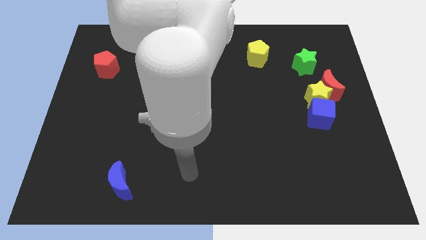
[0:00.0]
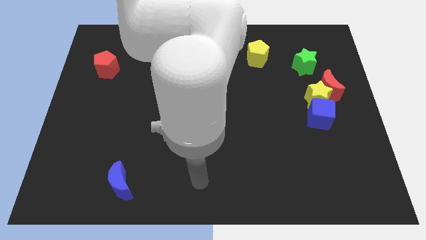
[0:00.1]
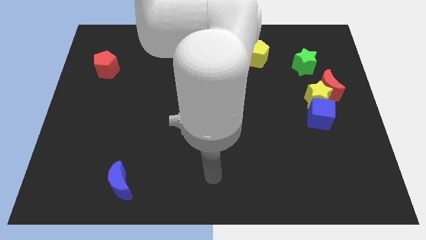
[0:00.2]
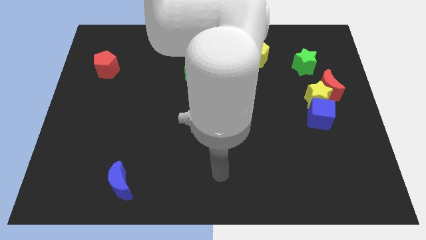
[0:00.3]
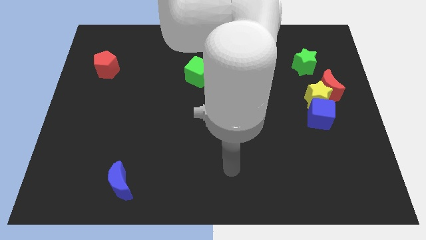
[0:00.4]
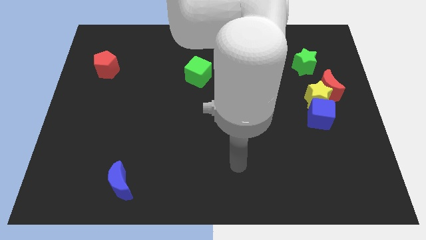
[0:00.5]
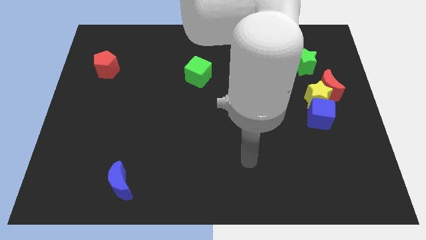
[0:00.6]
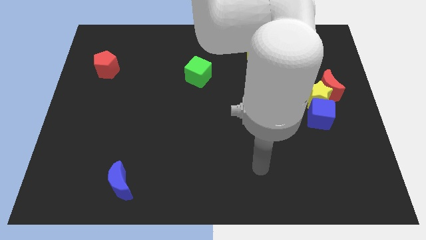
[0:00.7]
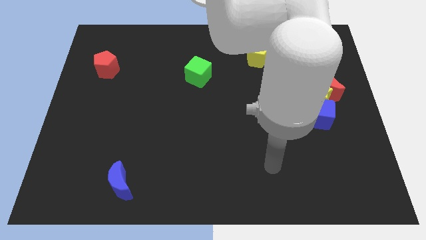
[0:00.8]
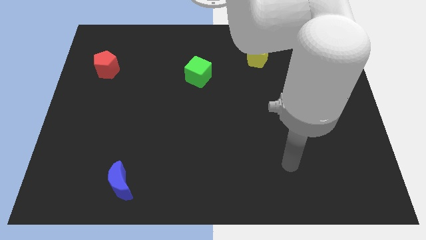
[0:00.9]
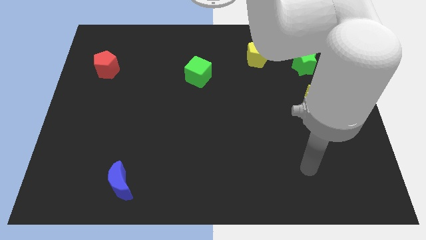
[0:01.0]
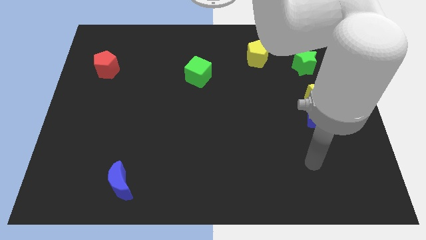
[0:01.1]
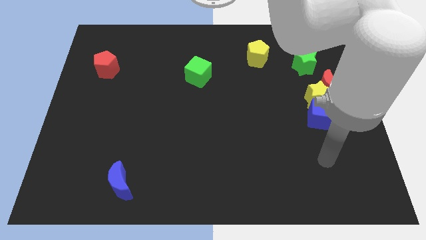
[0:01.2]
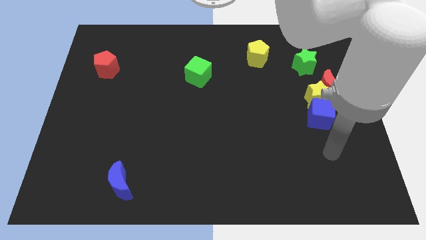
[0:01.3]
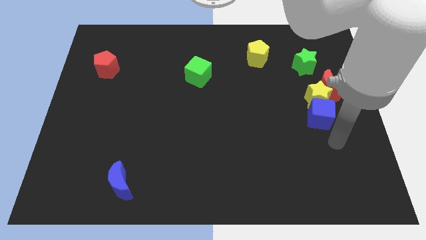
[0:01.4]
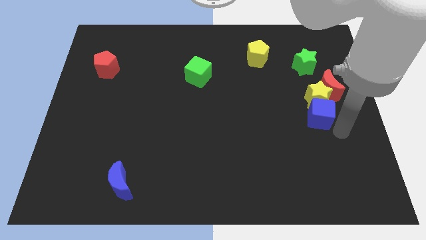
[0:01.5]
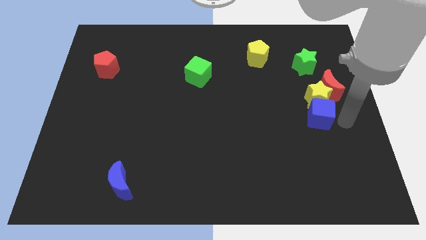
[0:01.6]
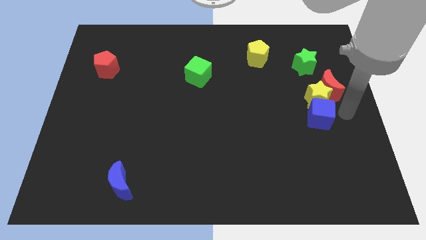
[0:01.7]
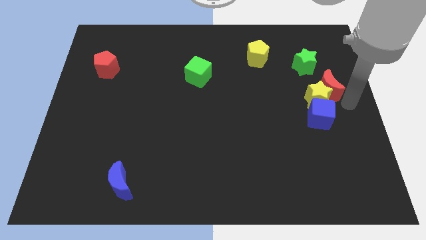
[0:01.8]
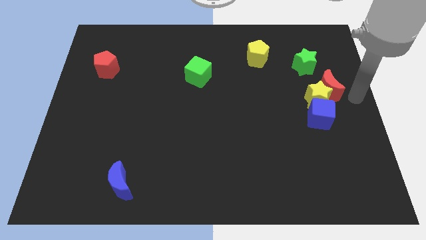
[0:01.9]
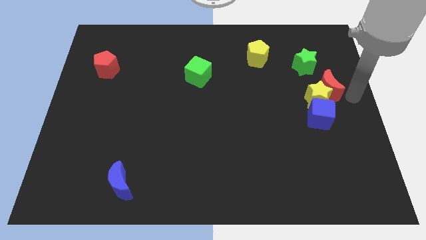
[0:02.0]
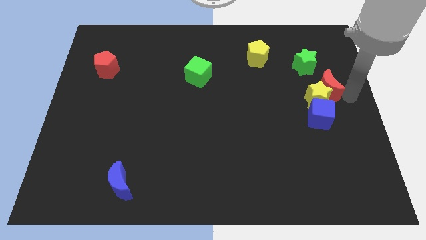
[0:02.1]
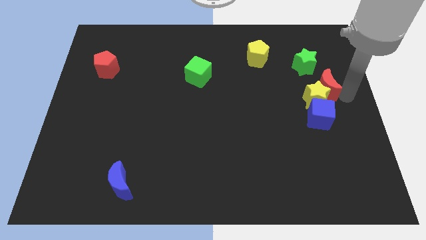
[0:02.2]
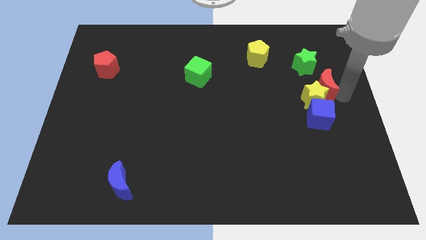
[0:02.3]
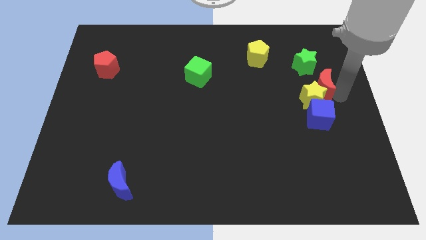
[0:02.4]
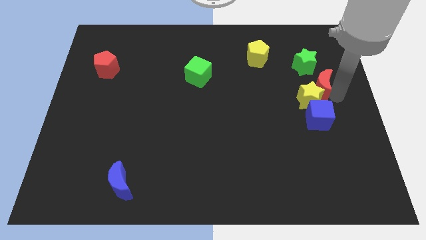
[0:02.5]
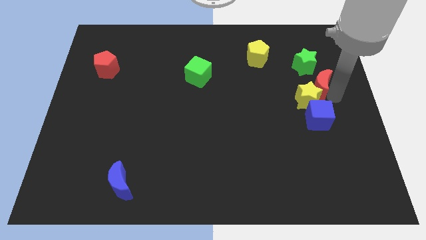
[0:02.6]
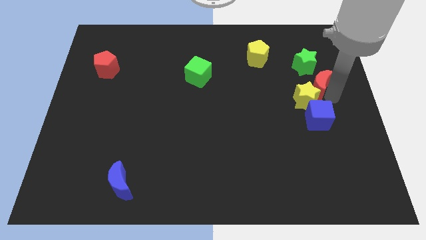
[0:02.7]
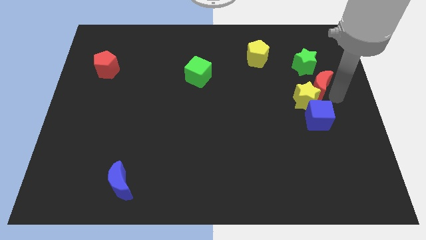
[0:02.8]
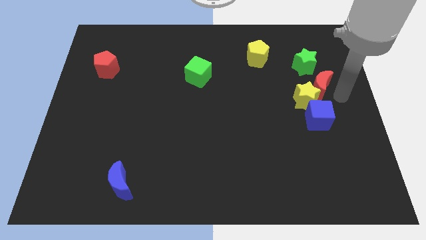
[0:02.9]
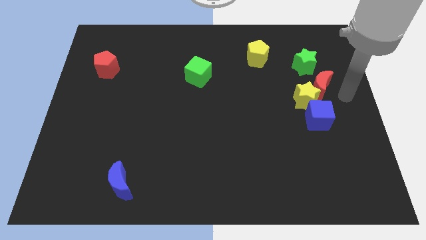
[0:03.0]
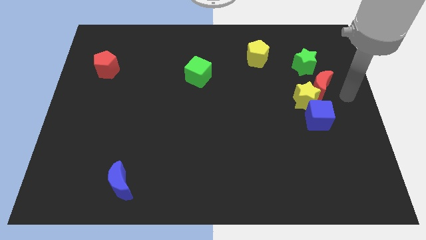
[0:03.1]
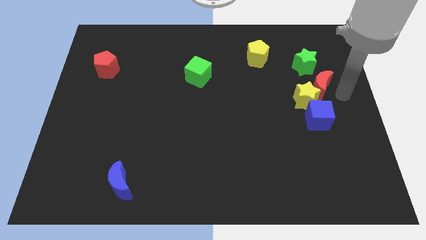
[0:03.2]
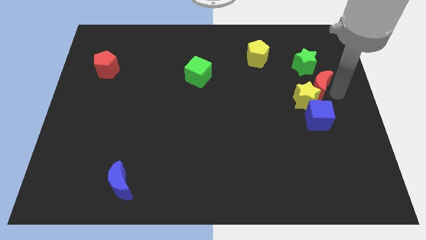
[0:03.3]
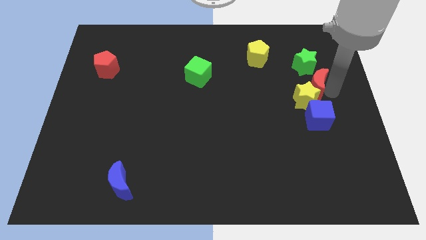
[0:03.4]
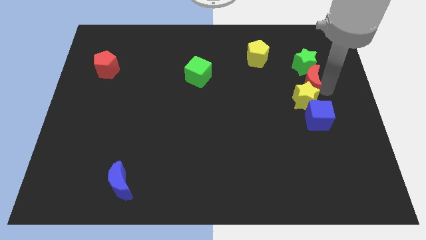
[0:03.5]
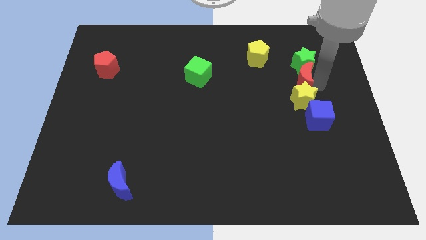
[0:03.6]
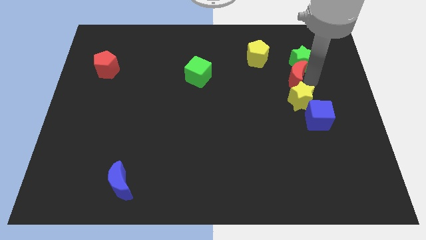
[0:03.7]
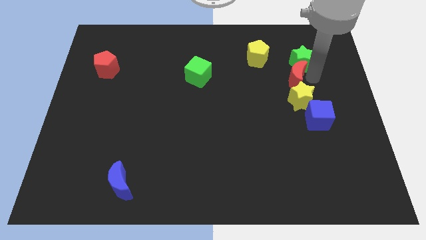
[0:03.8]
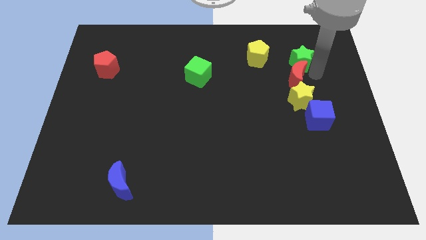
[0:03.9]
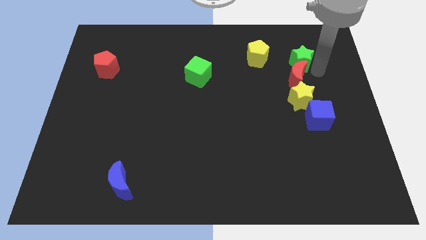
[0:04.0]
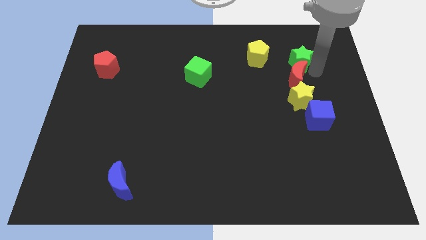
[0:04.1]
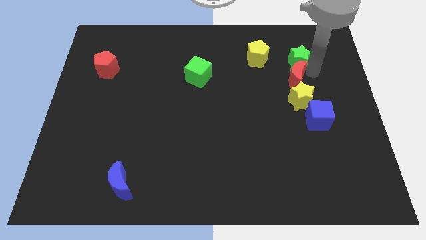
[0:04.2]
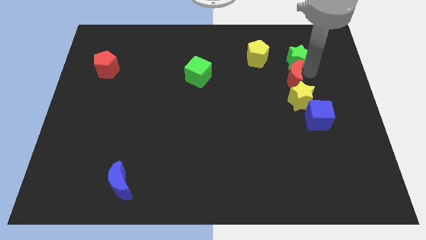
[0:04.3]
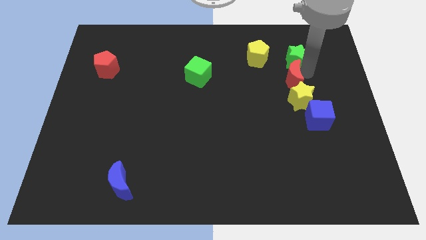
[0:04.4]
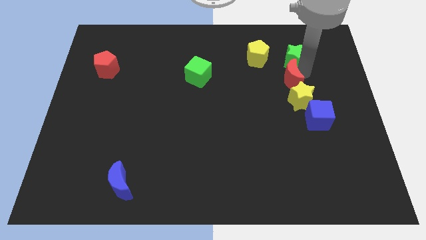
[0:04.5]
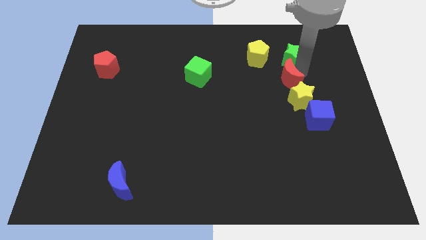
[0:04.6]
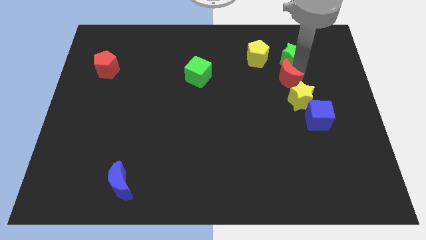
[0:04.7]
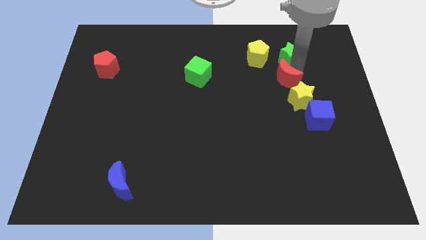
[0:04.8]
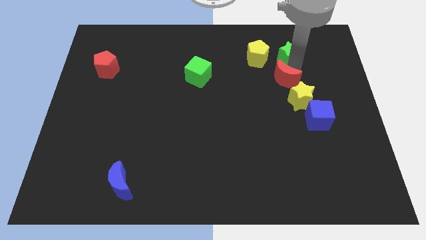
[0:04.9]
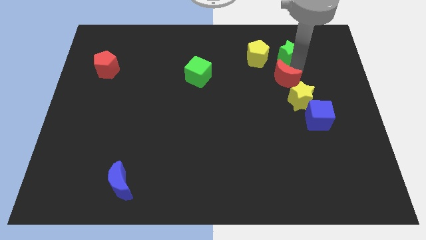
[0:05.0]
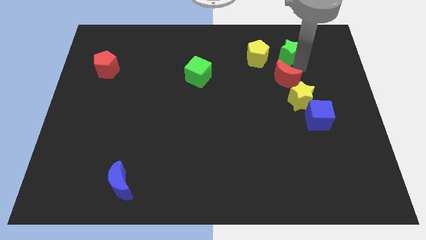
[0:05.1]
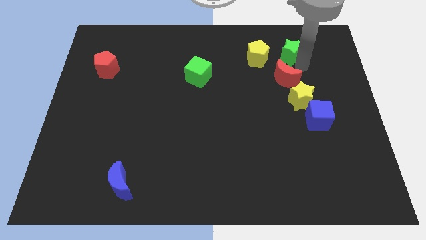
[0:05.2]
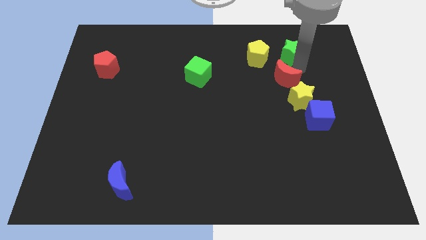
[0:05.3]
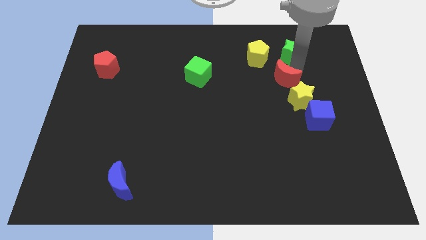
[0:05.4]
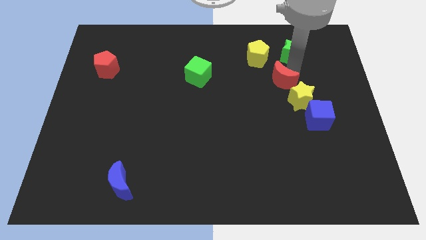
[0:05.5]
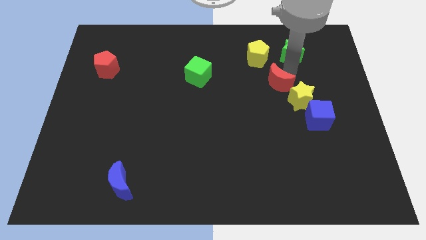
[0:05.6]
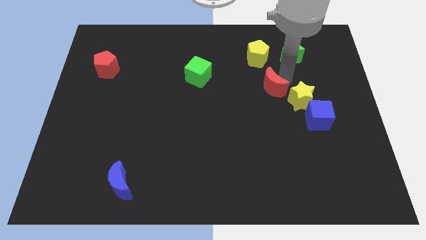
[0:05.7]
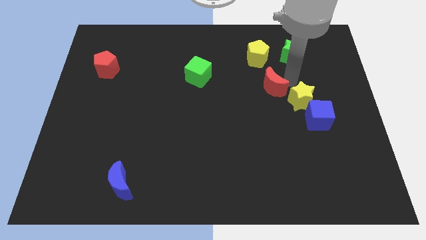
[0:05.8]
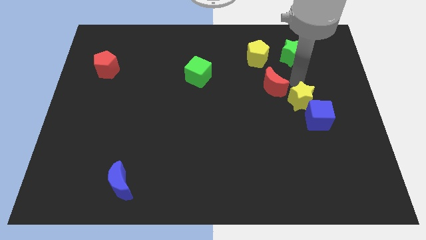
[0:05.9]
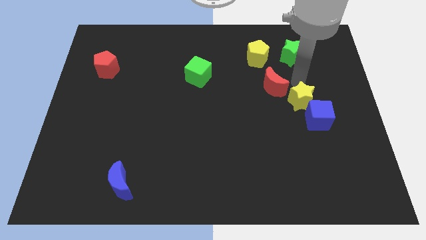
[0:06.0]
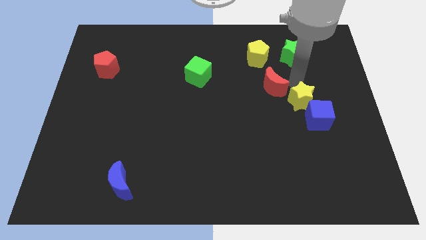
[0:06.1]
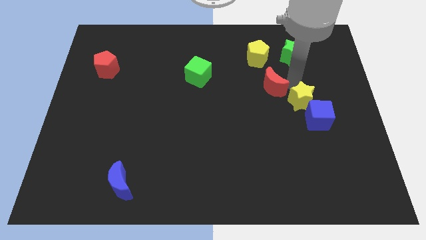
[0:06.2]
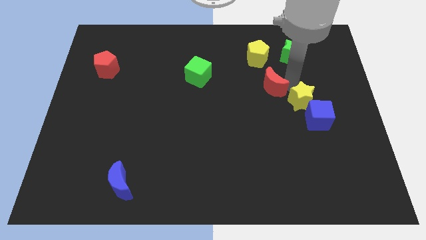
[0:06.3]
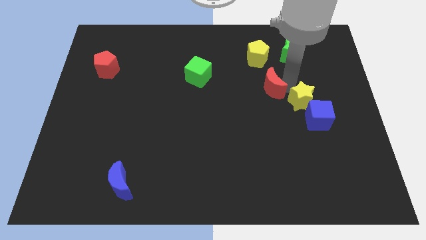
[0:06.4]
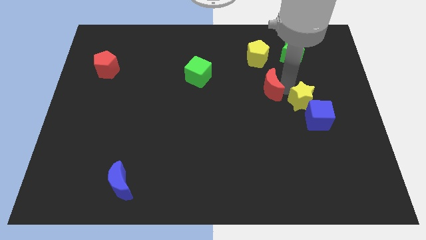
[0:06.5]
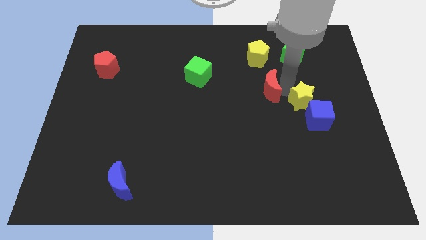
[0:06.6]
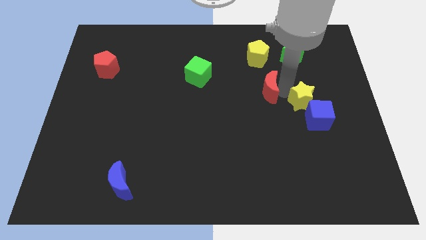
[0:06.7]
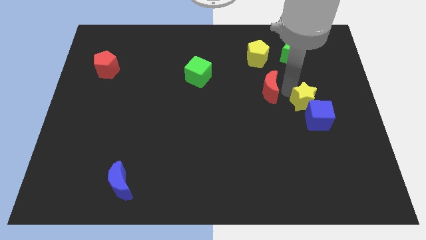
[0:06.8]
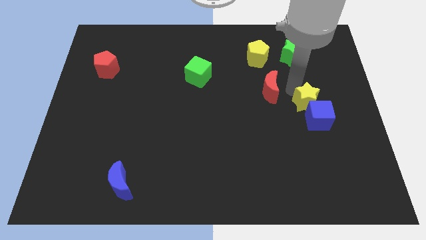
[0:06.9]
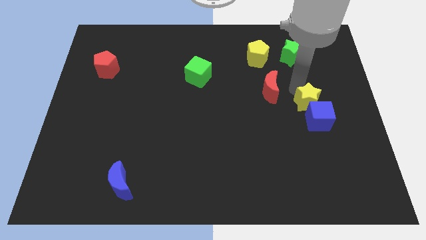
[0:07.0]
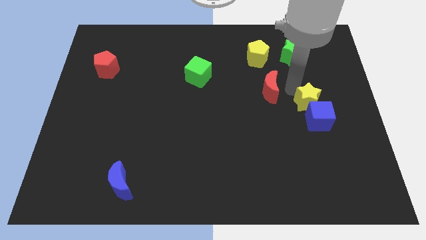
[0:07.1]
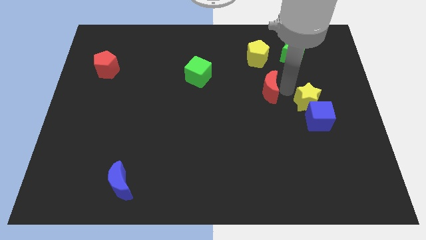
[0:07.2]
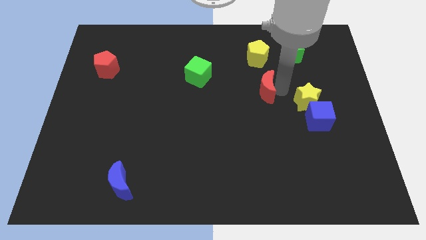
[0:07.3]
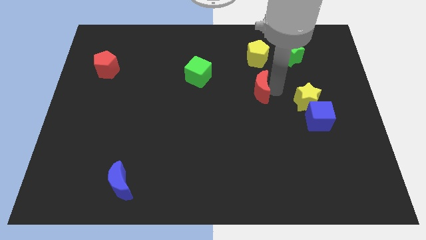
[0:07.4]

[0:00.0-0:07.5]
move the red moon to the center of the board
